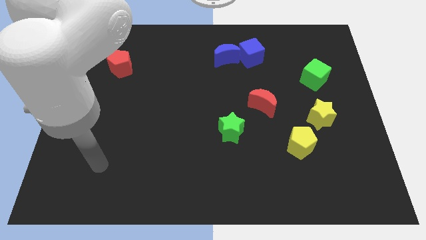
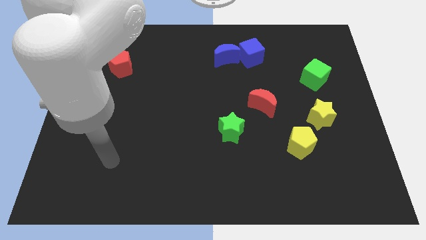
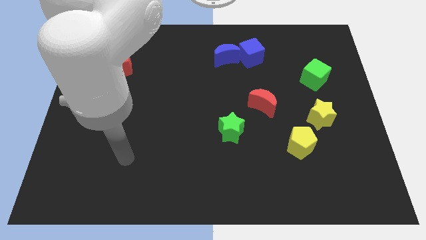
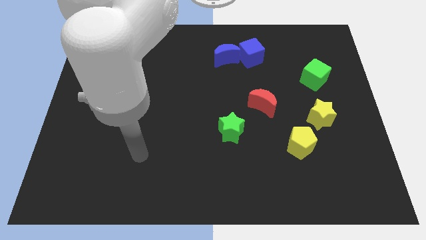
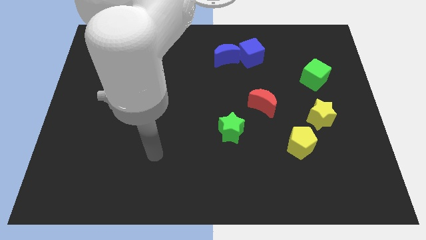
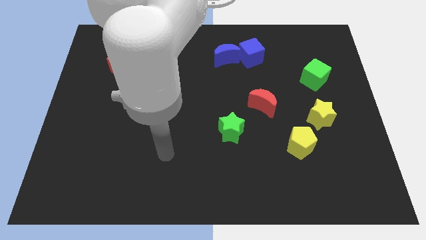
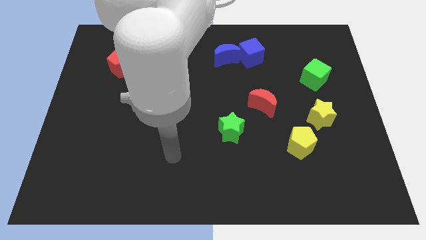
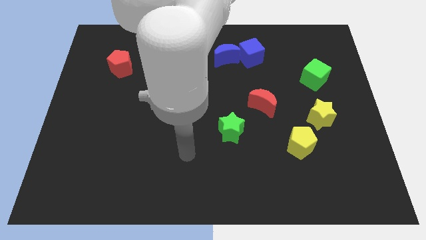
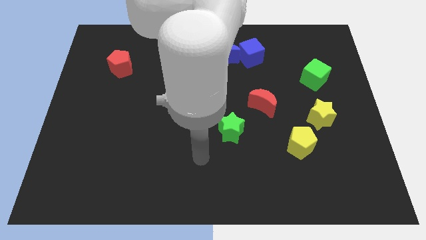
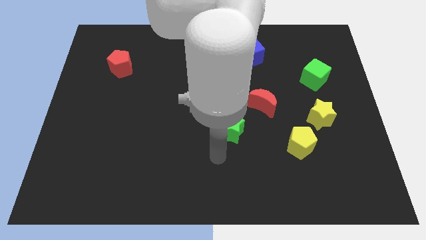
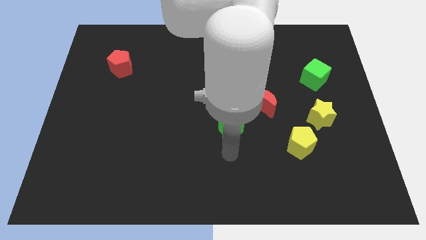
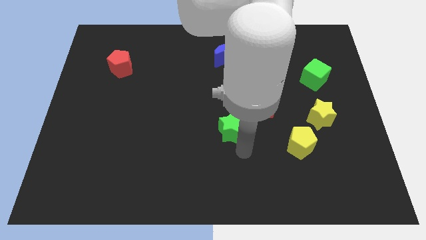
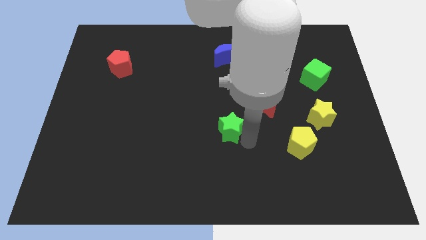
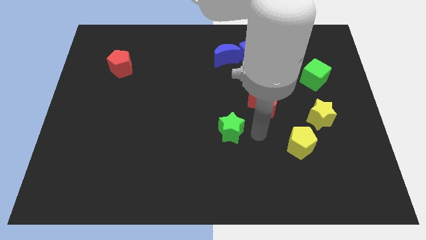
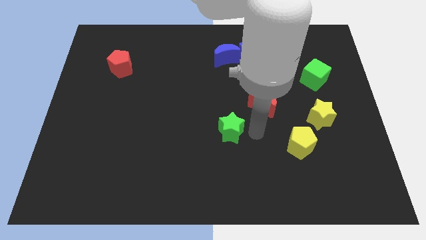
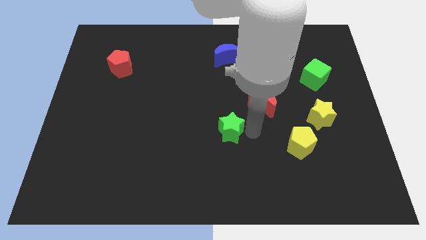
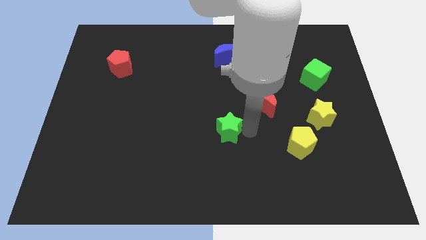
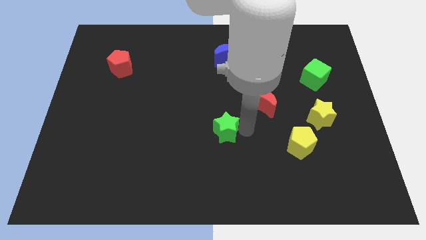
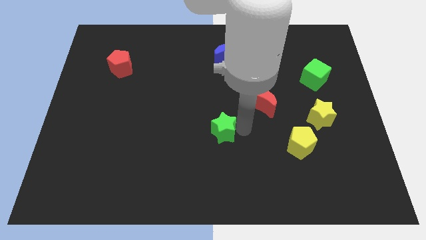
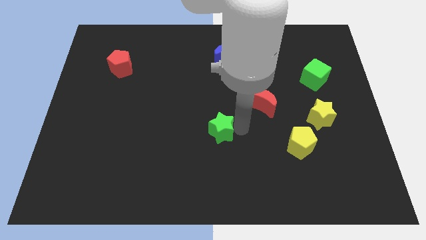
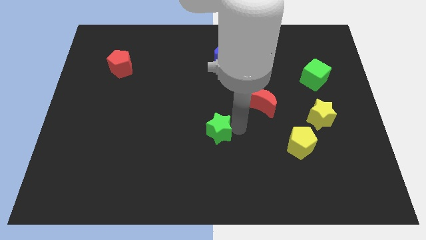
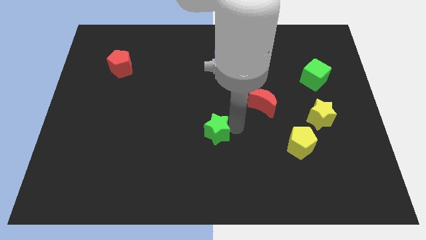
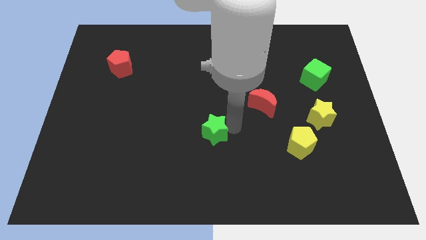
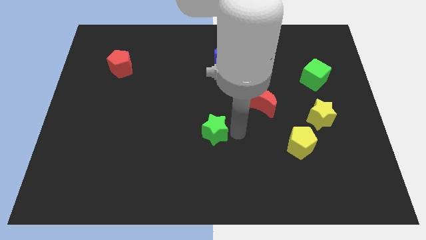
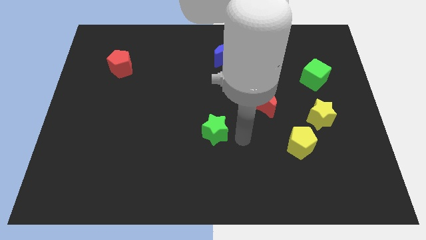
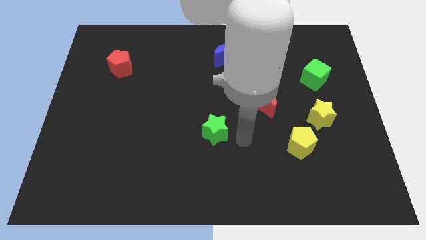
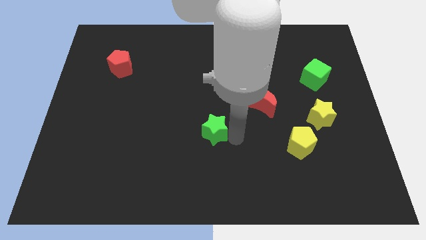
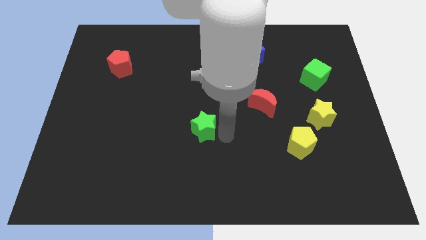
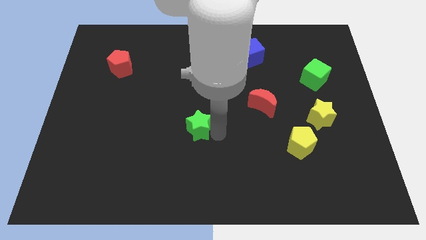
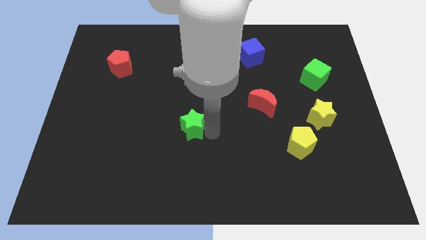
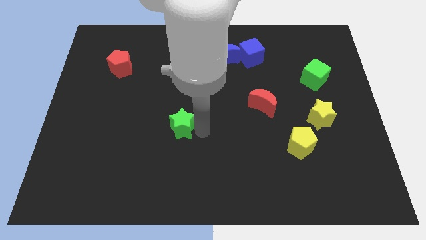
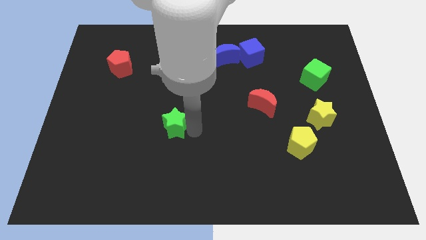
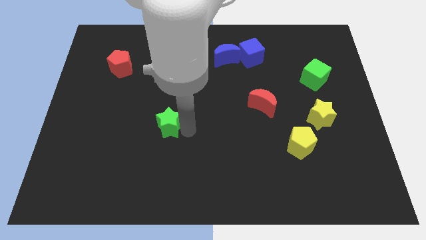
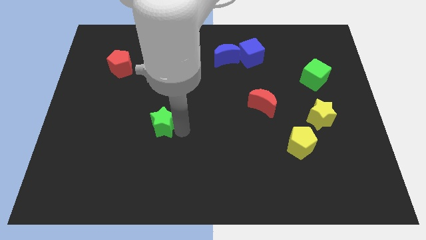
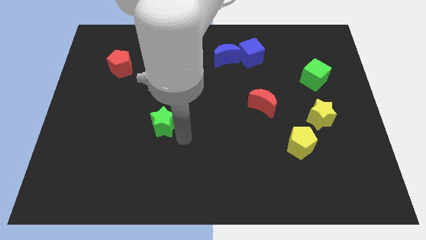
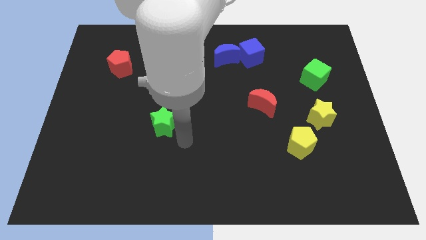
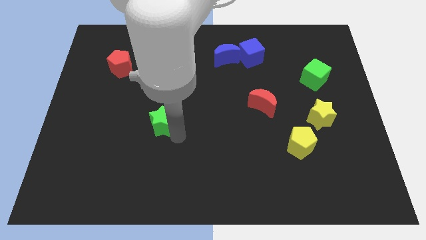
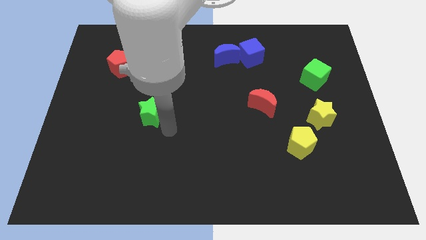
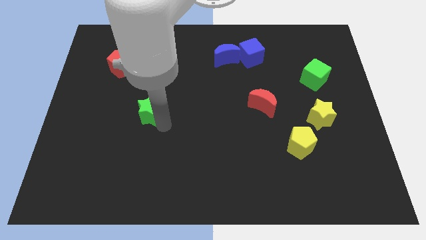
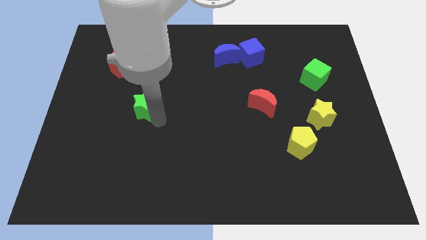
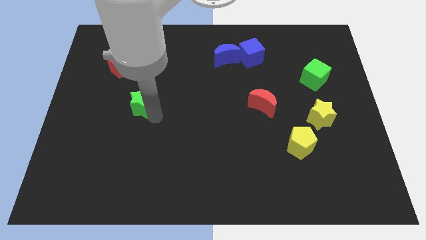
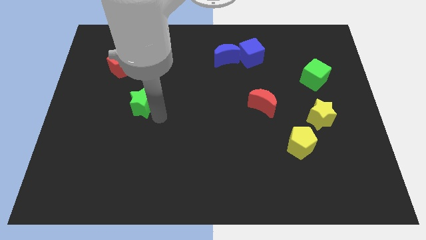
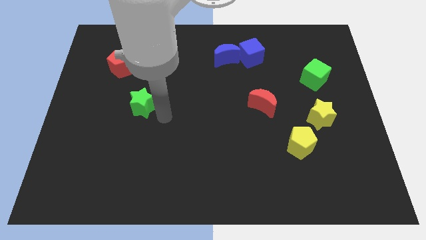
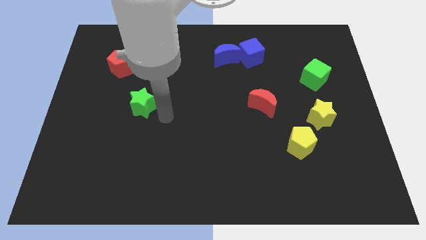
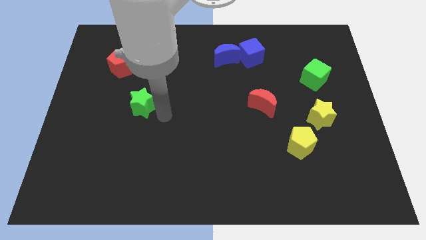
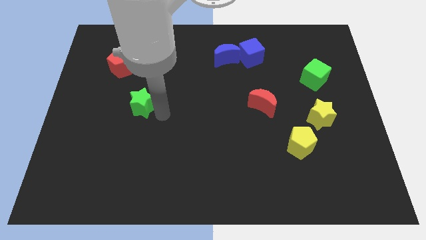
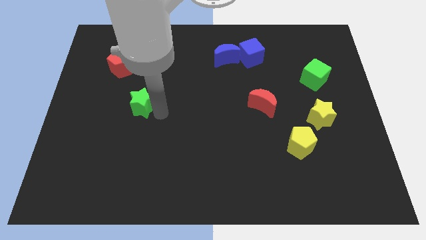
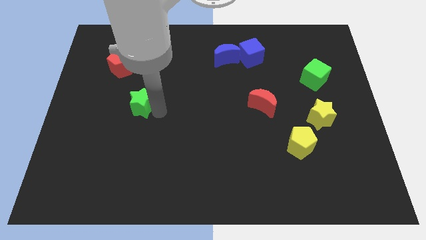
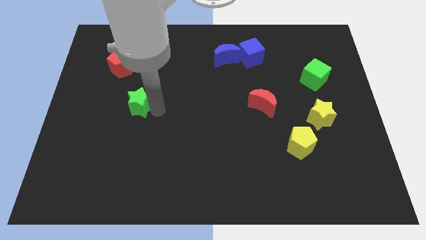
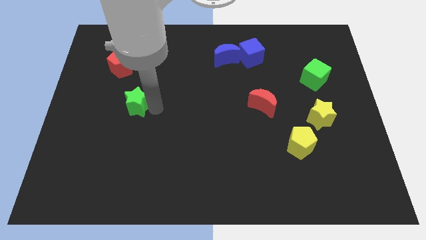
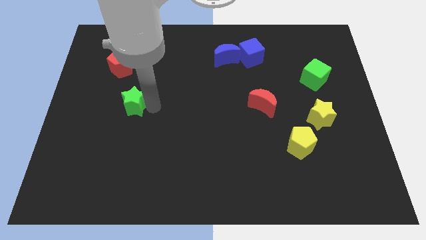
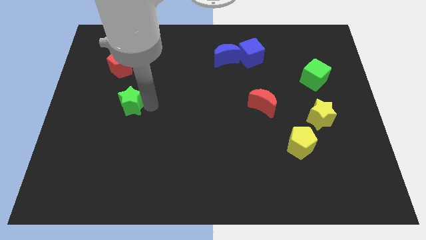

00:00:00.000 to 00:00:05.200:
move the green star below the red pentagon

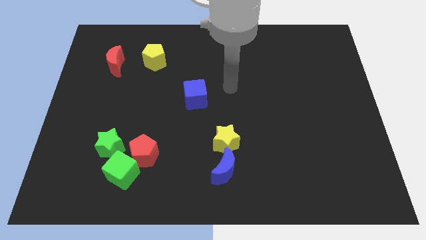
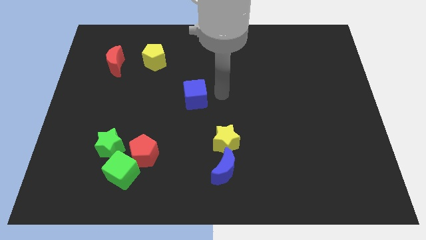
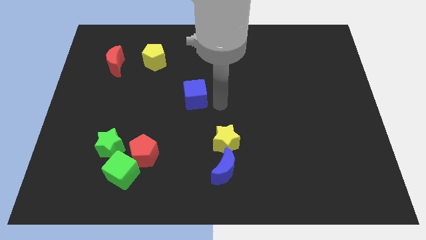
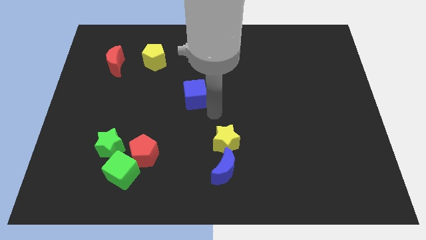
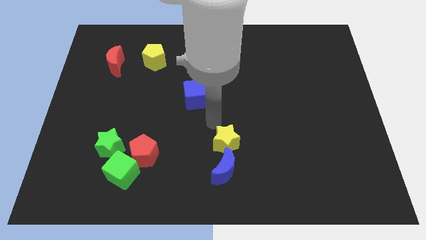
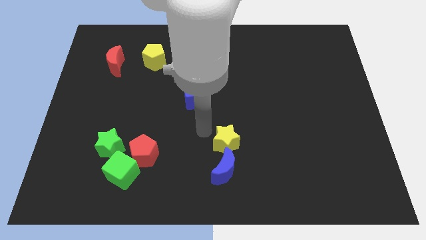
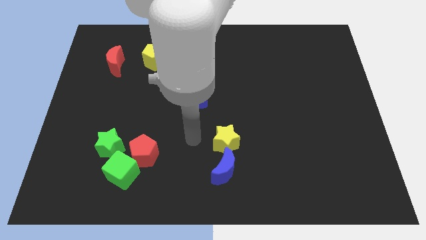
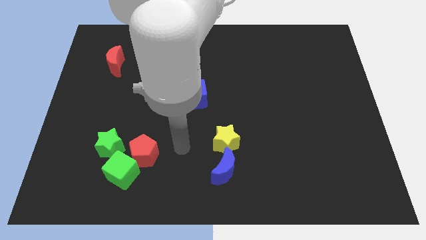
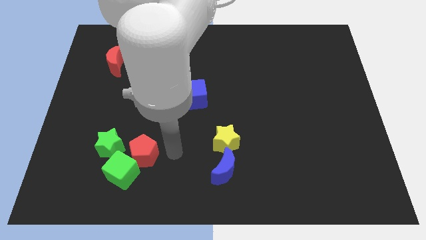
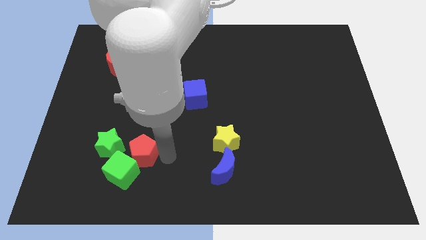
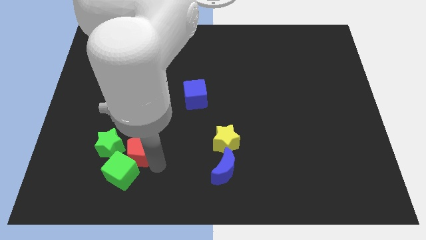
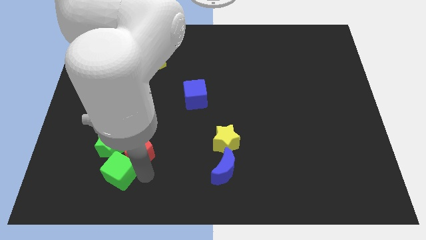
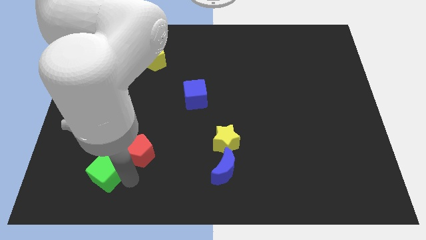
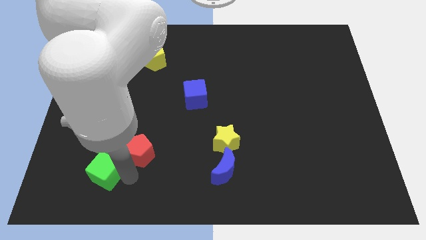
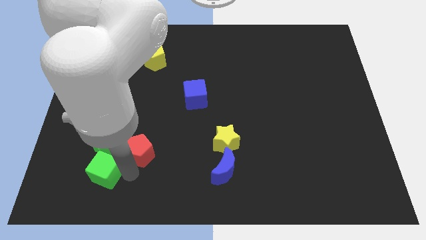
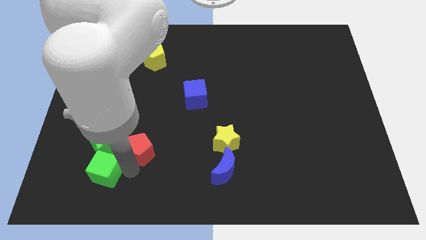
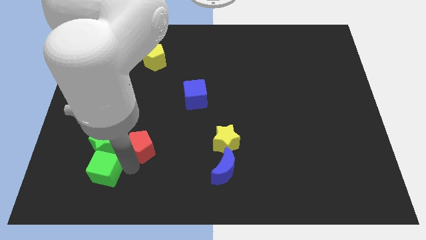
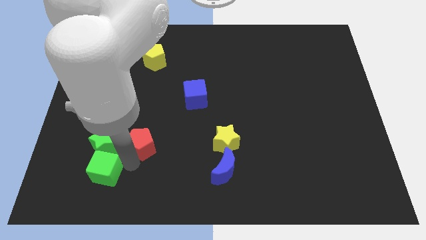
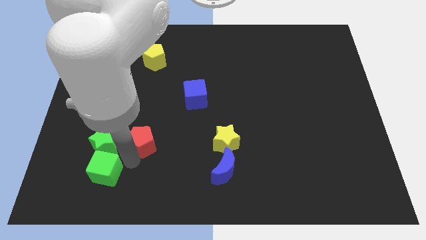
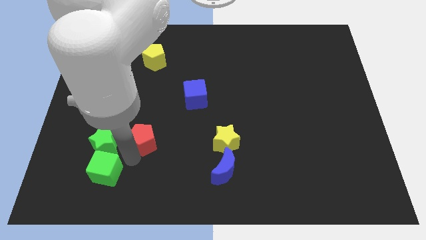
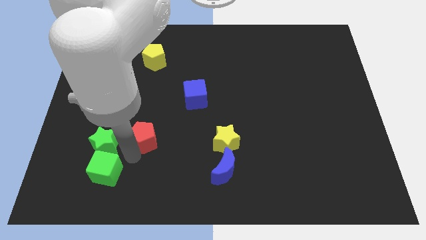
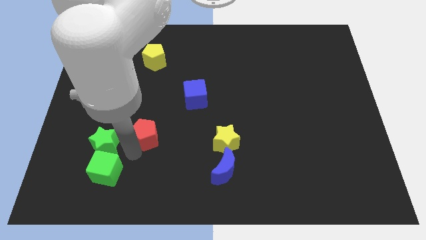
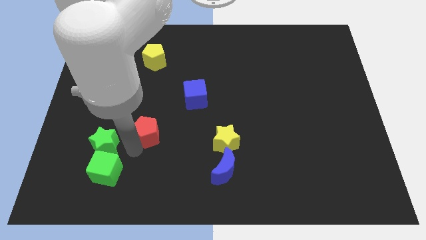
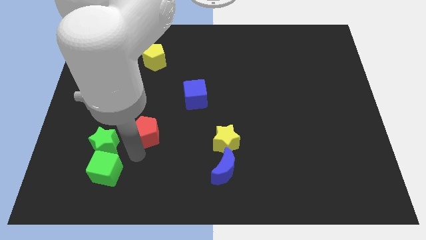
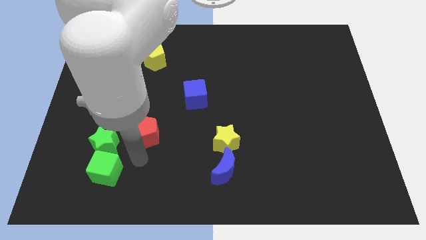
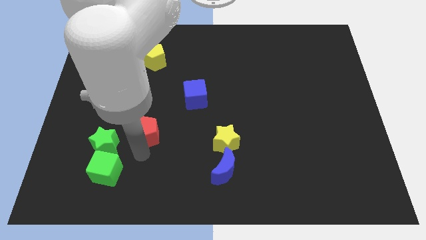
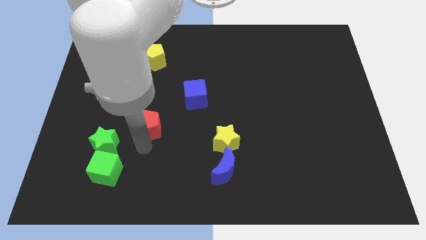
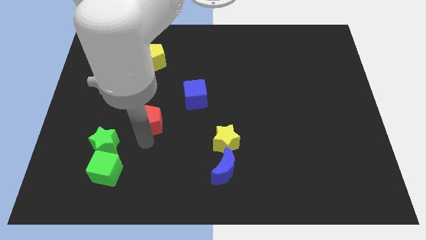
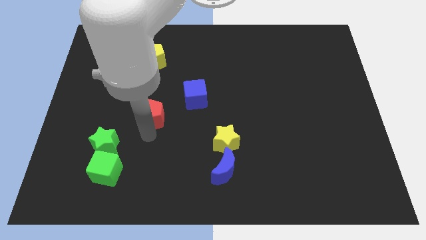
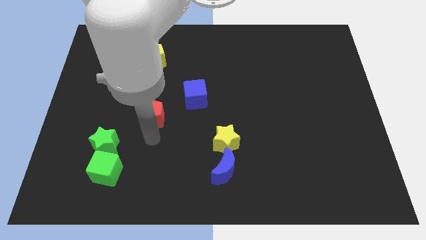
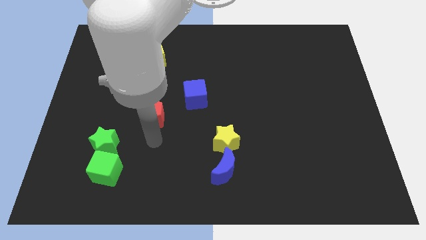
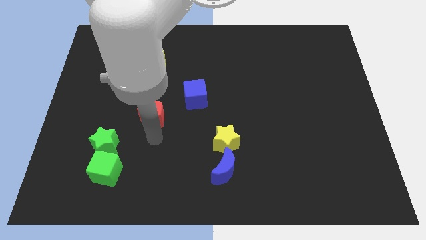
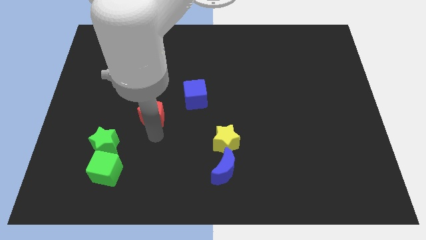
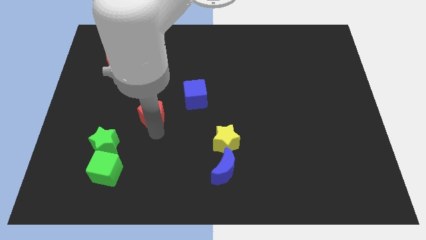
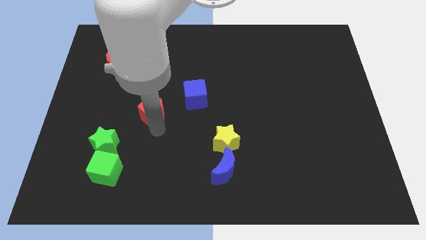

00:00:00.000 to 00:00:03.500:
move the red pentagon to the left of the blue cube
